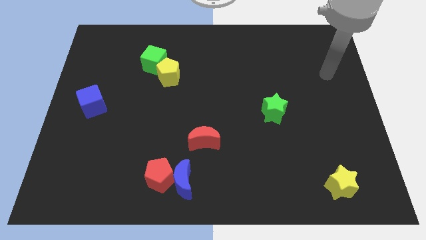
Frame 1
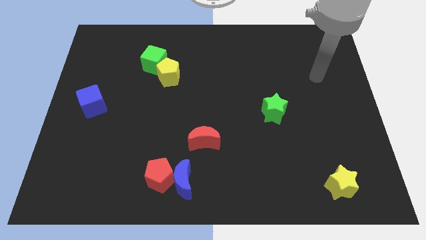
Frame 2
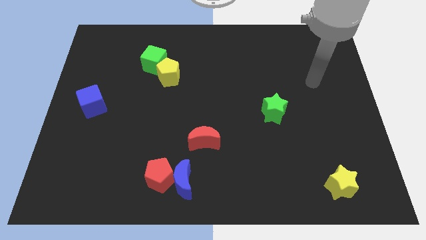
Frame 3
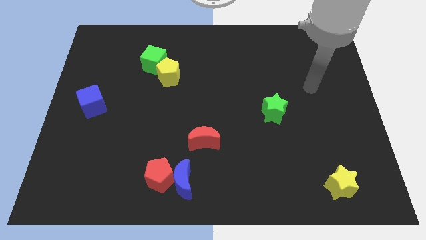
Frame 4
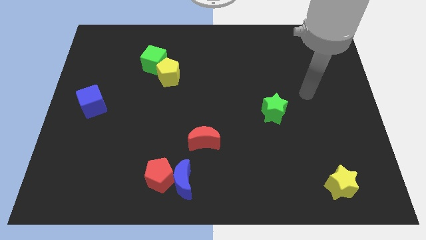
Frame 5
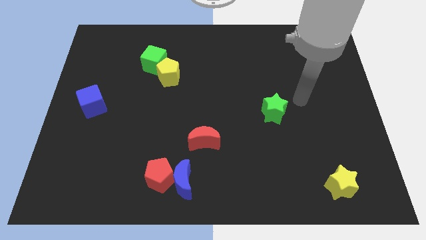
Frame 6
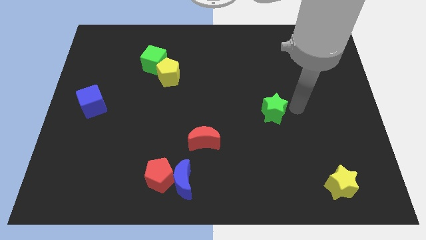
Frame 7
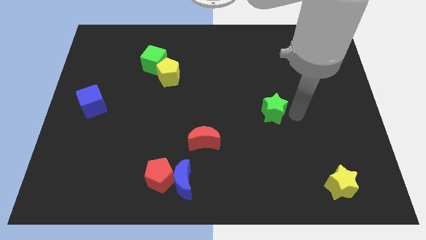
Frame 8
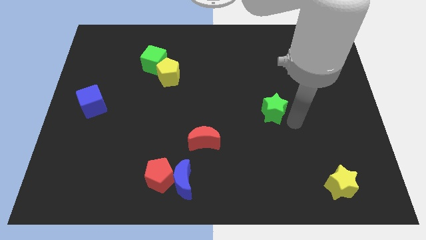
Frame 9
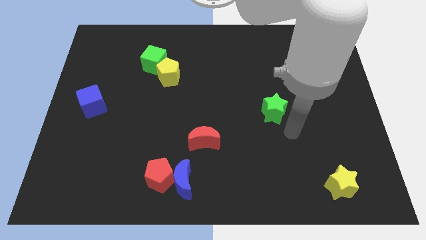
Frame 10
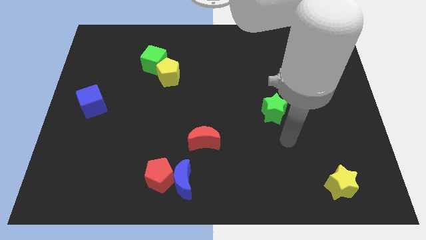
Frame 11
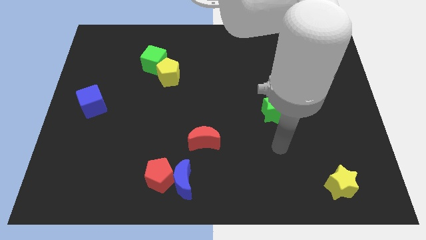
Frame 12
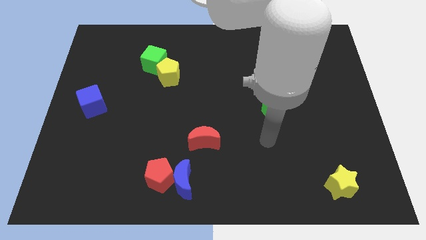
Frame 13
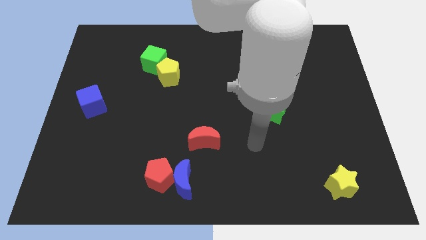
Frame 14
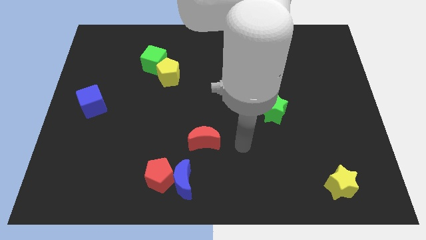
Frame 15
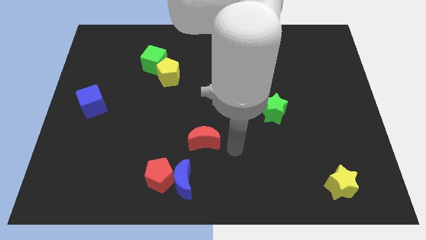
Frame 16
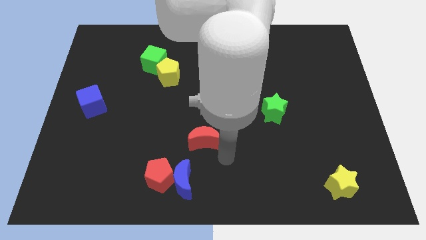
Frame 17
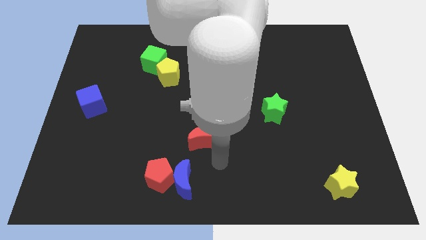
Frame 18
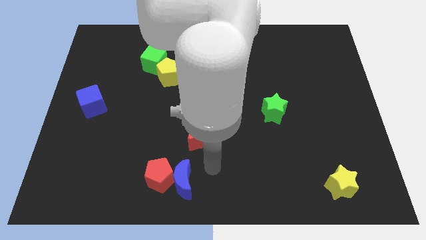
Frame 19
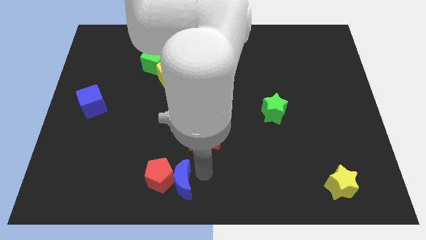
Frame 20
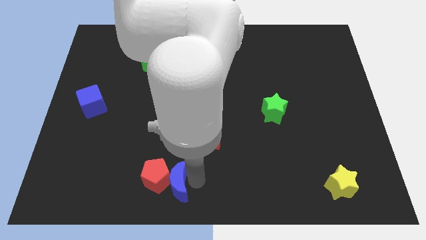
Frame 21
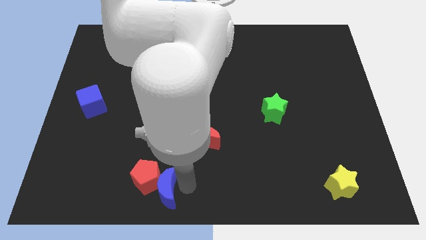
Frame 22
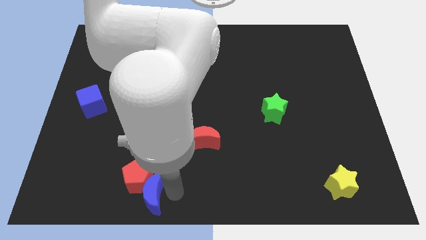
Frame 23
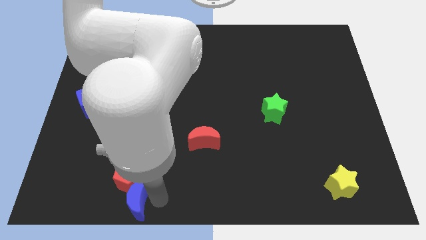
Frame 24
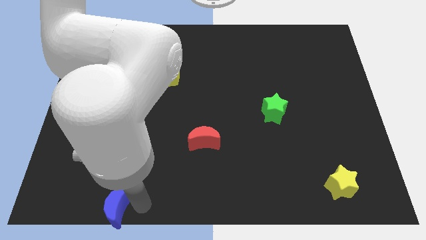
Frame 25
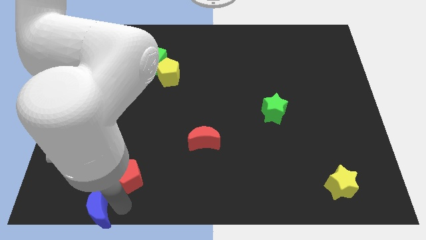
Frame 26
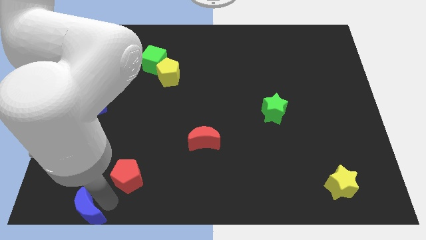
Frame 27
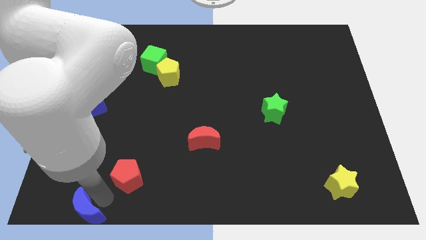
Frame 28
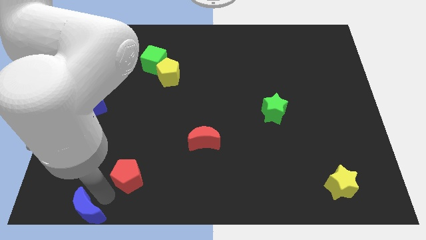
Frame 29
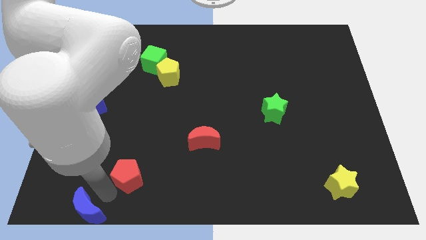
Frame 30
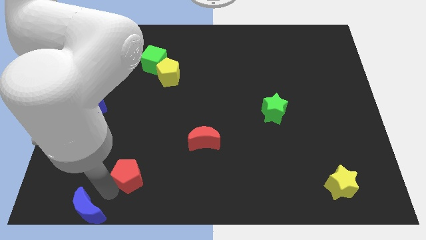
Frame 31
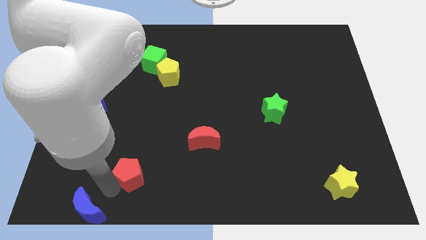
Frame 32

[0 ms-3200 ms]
move the red pentagon away from the blue moon

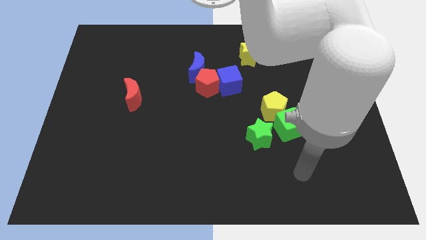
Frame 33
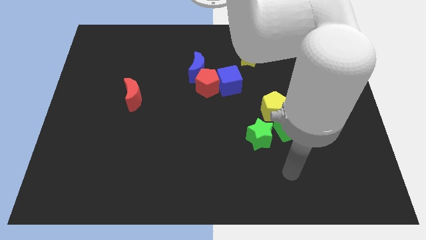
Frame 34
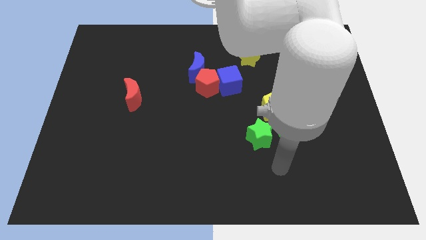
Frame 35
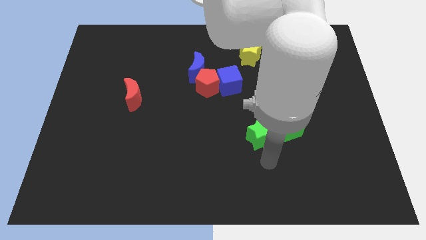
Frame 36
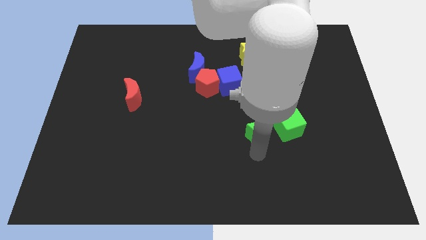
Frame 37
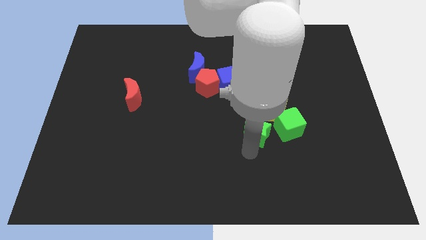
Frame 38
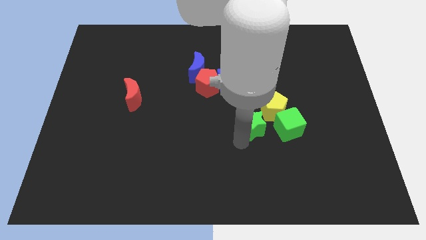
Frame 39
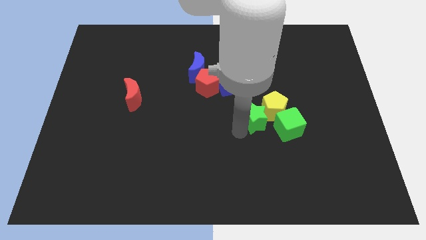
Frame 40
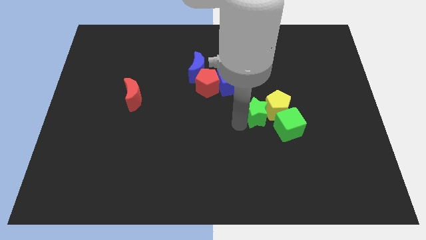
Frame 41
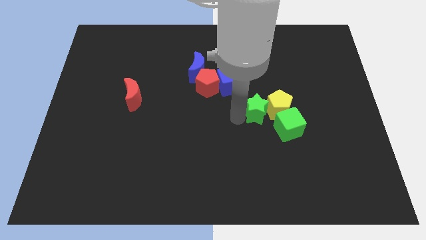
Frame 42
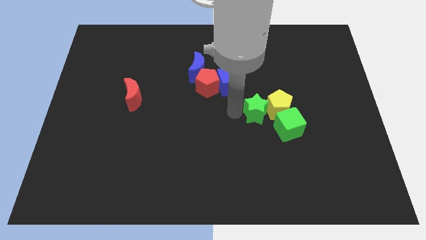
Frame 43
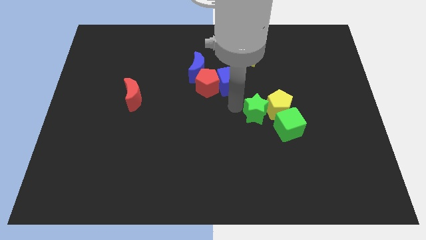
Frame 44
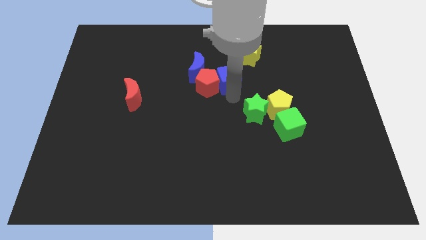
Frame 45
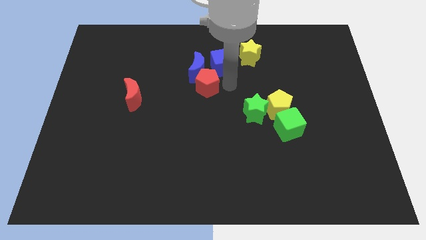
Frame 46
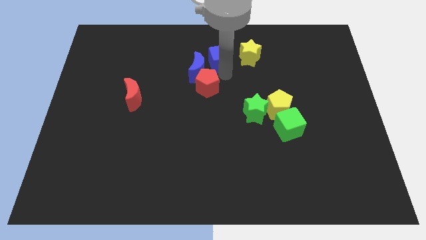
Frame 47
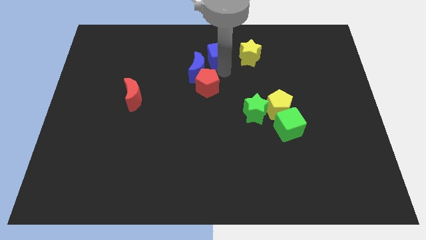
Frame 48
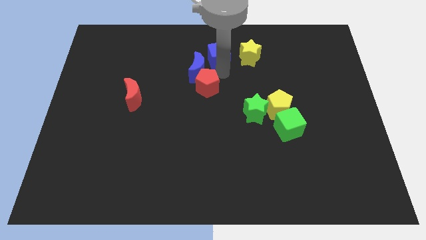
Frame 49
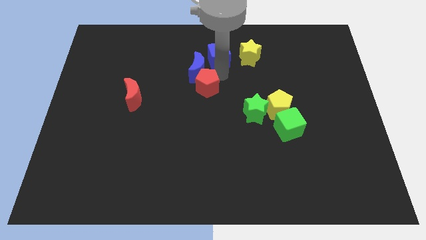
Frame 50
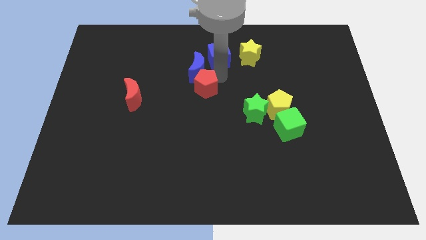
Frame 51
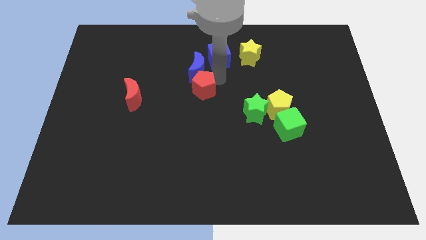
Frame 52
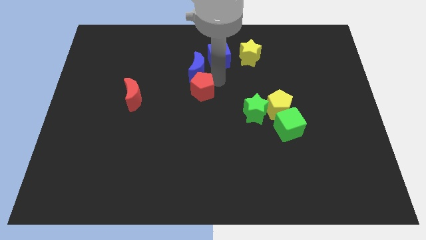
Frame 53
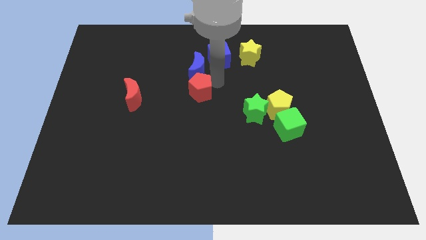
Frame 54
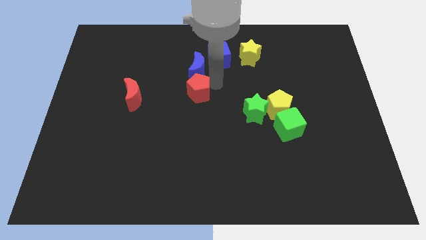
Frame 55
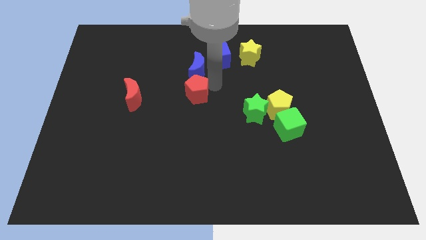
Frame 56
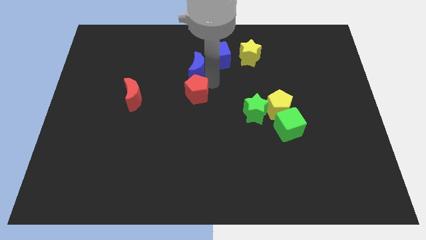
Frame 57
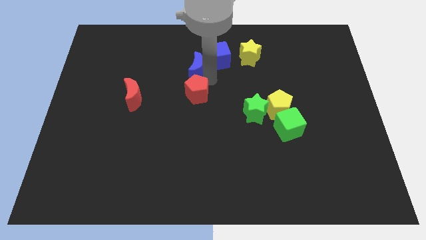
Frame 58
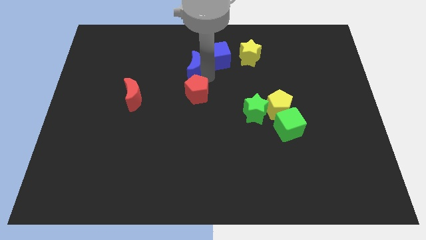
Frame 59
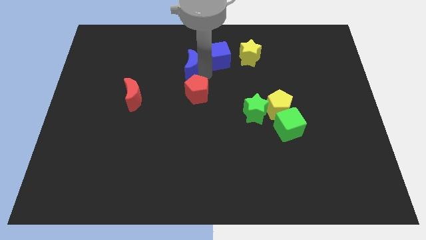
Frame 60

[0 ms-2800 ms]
pull the red pentagon apart from the blue cube and blue moon

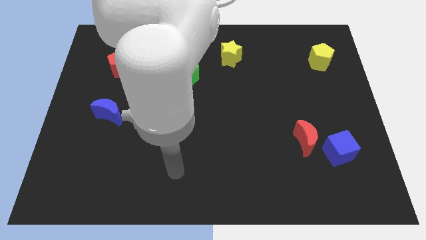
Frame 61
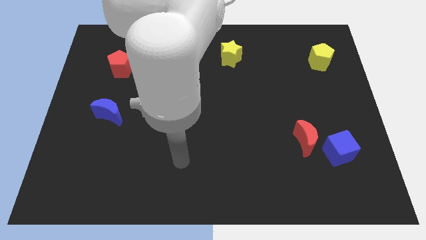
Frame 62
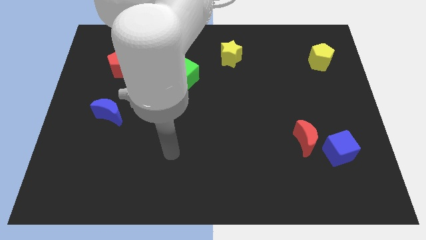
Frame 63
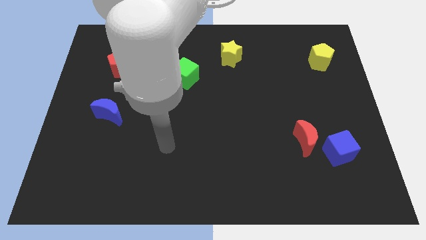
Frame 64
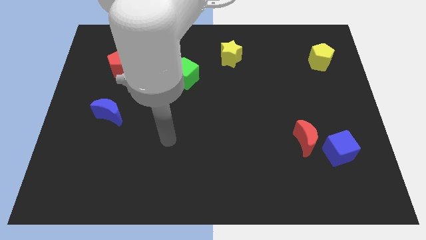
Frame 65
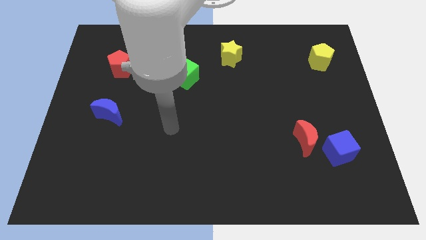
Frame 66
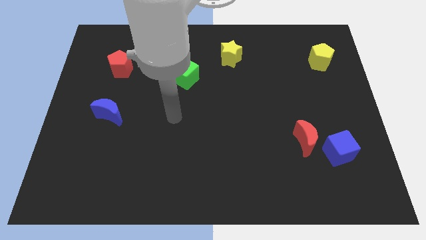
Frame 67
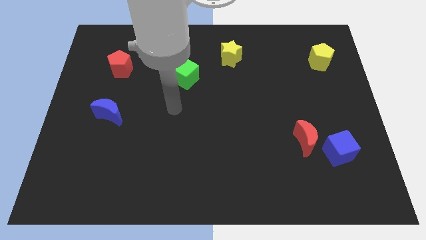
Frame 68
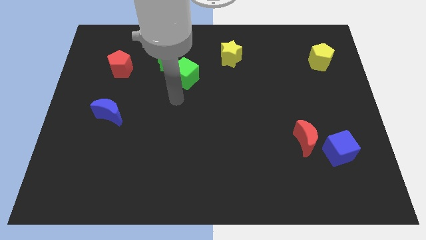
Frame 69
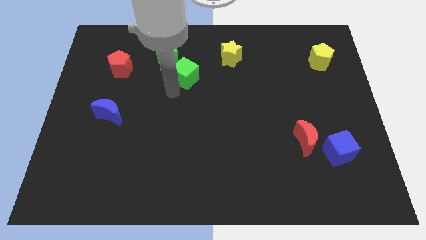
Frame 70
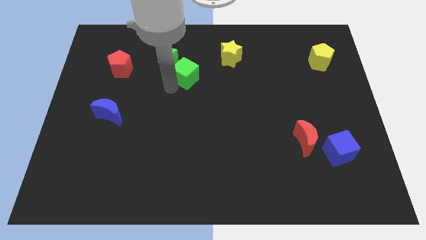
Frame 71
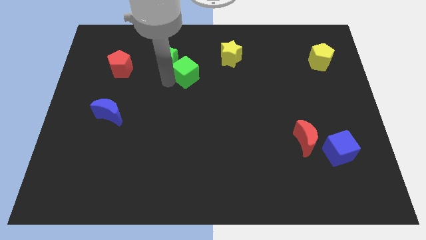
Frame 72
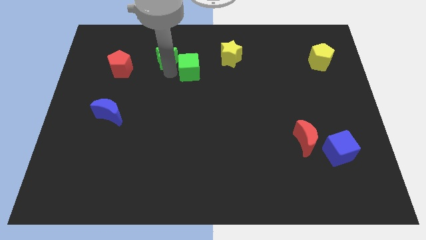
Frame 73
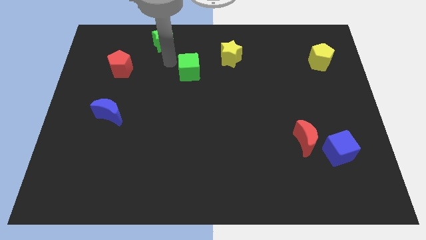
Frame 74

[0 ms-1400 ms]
separate the green cube from the green star

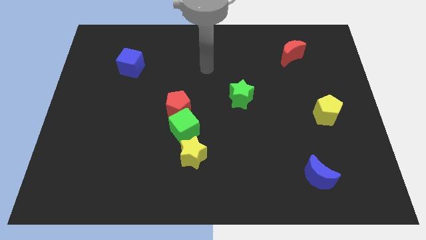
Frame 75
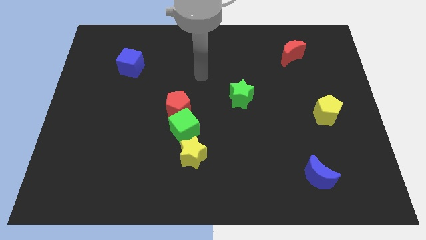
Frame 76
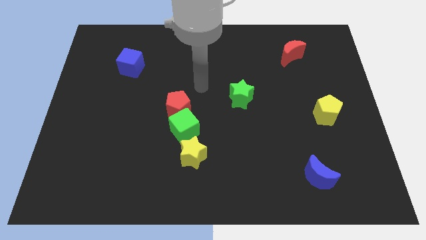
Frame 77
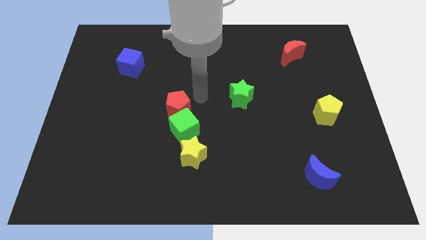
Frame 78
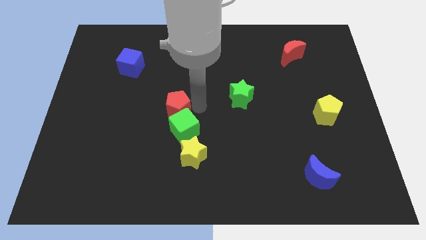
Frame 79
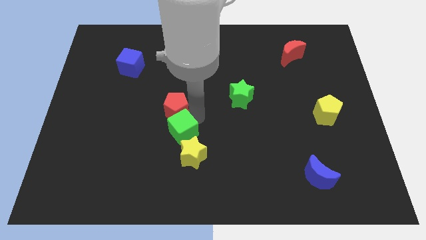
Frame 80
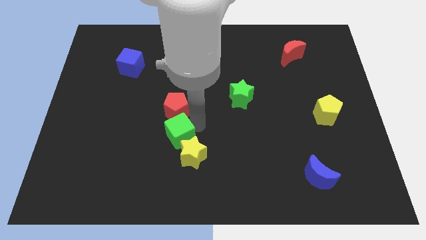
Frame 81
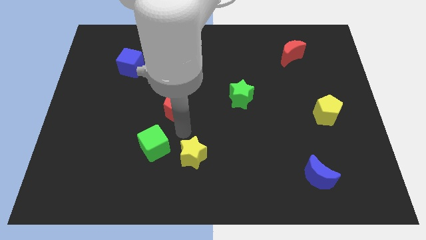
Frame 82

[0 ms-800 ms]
pull the red pentagon apart from the green cube

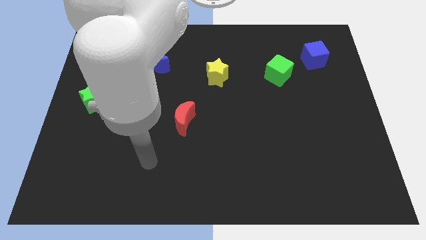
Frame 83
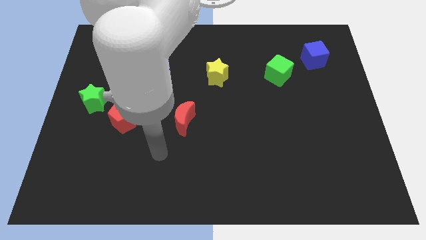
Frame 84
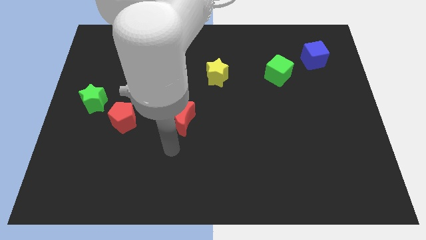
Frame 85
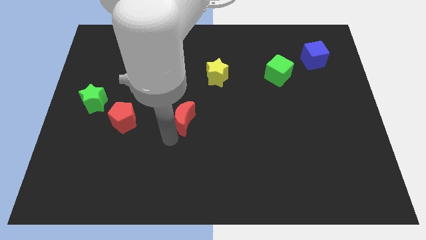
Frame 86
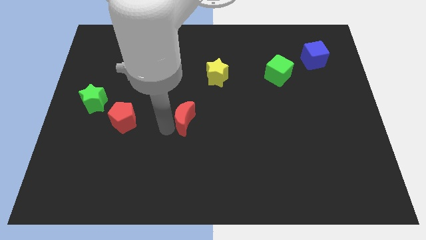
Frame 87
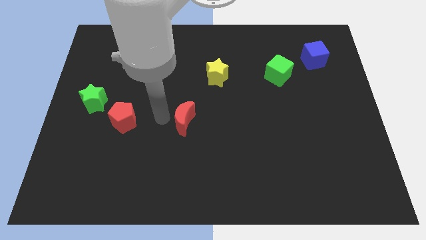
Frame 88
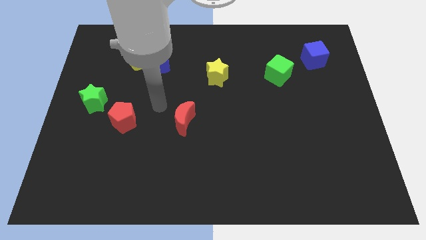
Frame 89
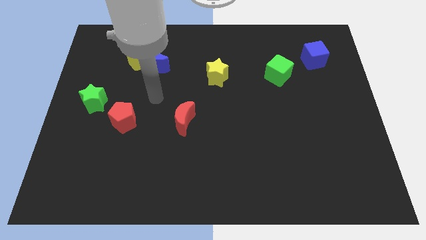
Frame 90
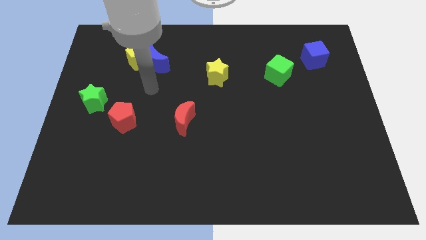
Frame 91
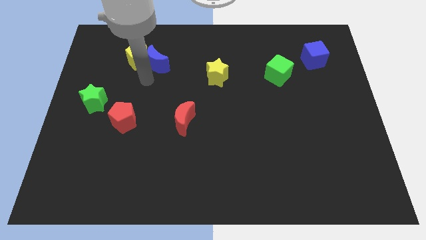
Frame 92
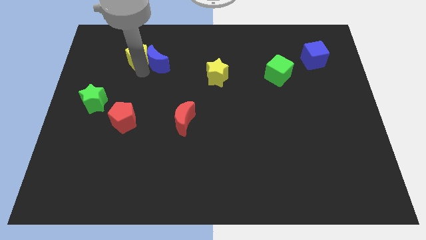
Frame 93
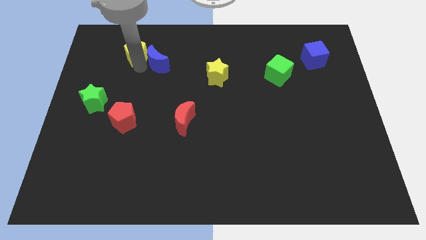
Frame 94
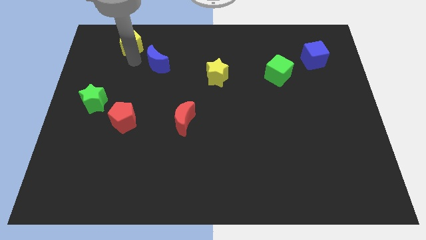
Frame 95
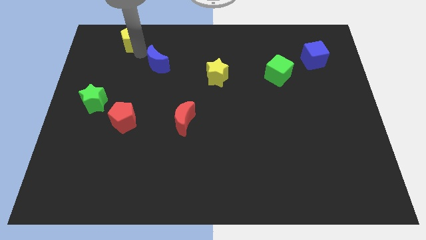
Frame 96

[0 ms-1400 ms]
move the blue moon away from the yellow pentagon
